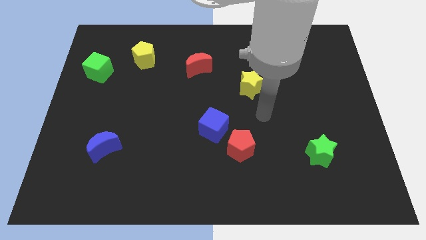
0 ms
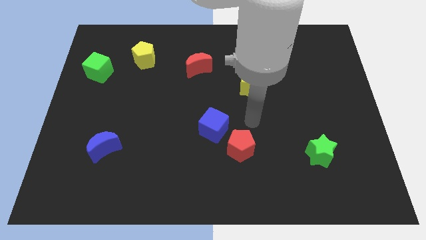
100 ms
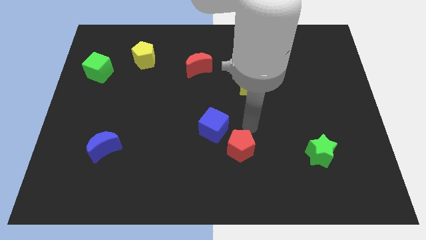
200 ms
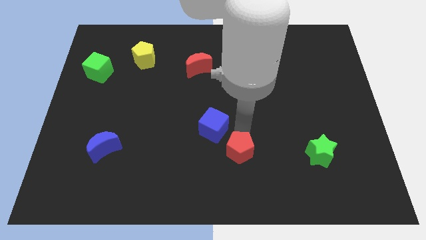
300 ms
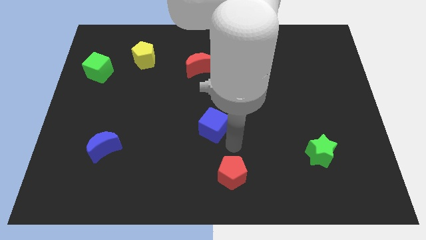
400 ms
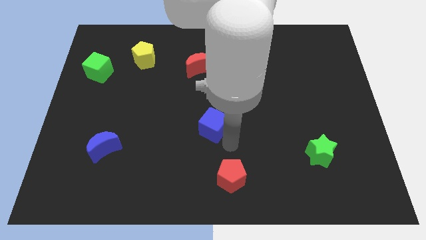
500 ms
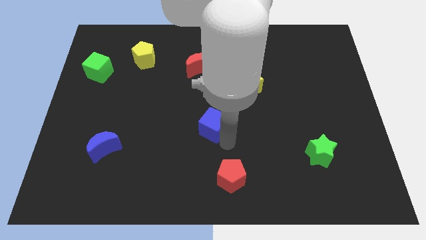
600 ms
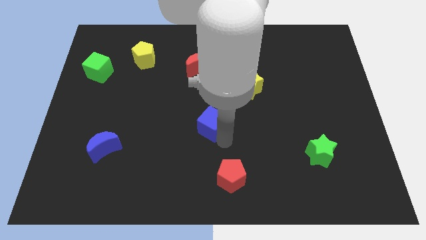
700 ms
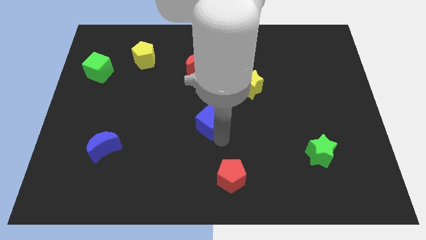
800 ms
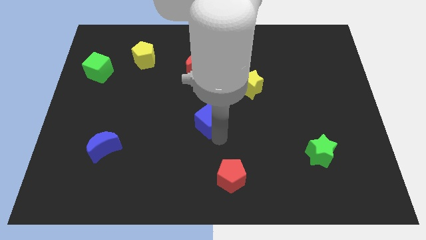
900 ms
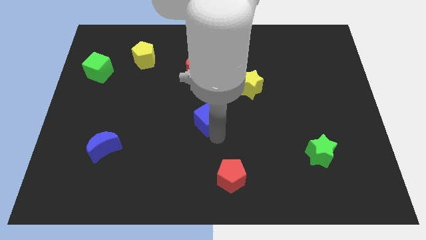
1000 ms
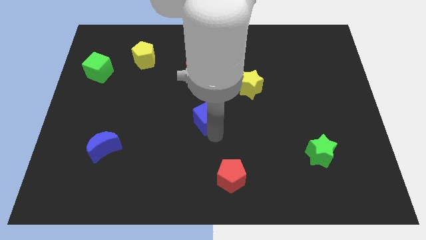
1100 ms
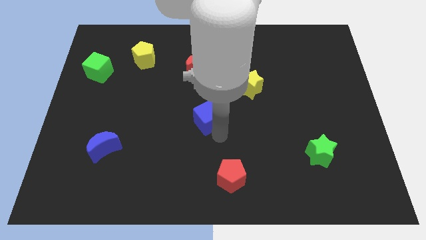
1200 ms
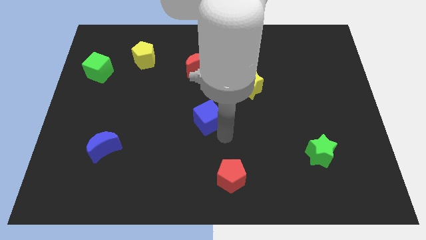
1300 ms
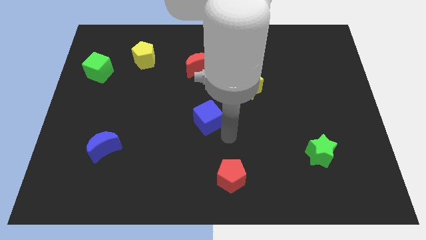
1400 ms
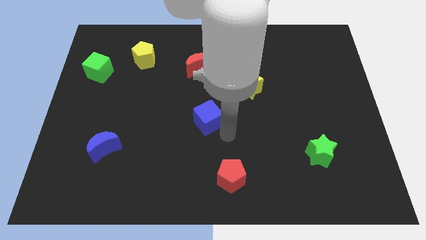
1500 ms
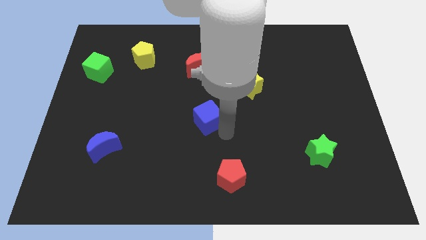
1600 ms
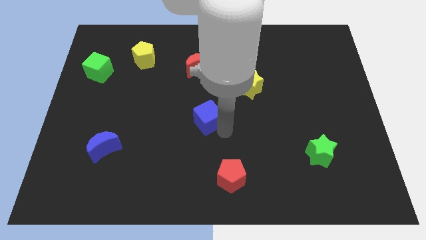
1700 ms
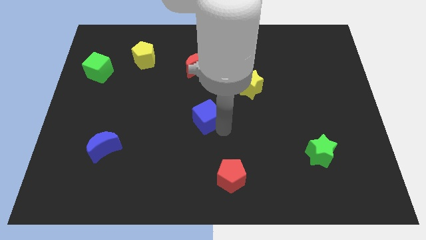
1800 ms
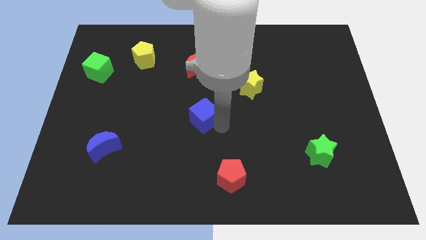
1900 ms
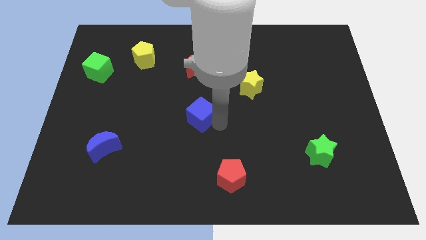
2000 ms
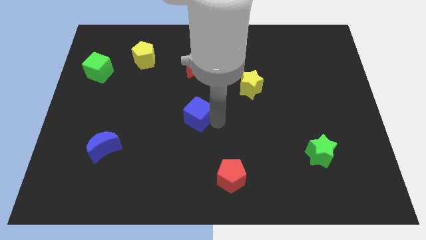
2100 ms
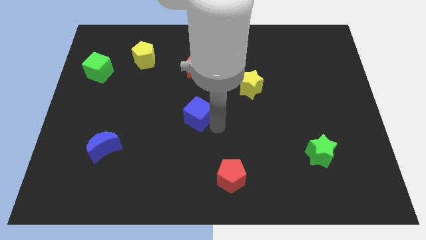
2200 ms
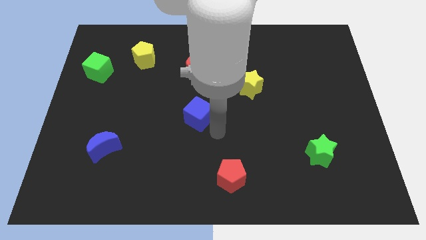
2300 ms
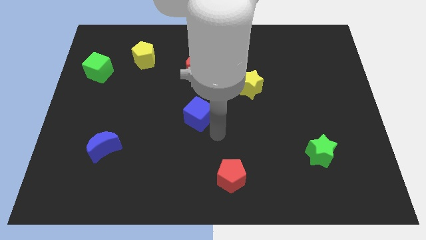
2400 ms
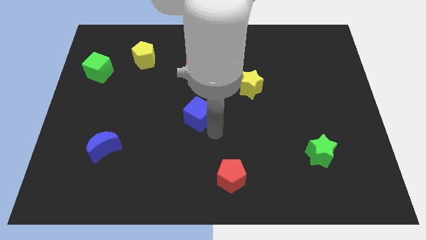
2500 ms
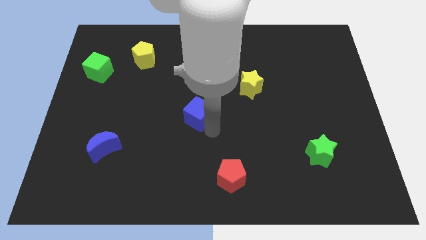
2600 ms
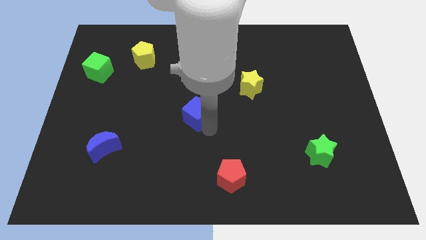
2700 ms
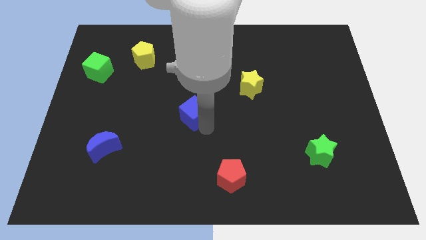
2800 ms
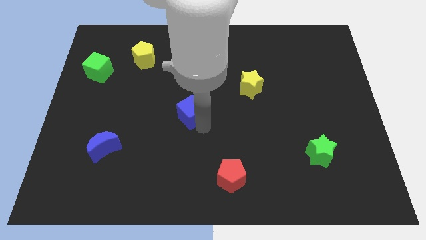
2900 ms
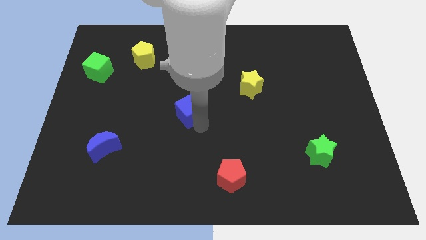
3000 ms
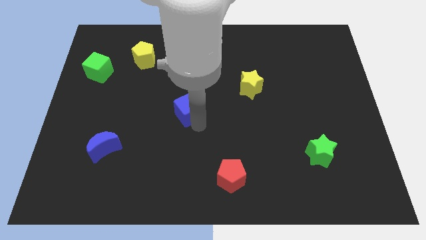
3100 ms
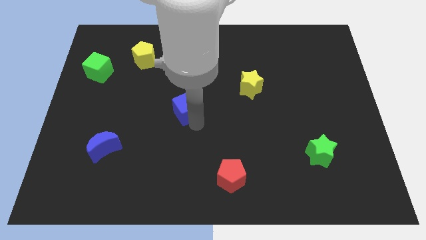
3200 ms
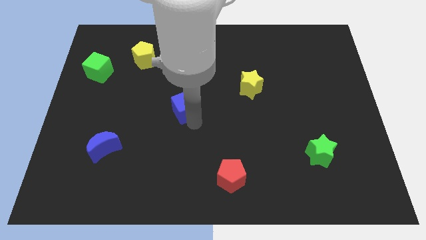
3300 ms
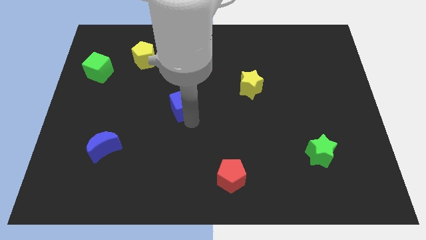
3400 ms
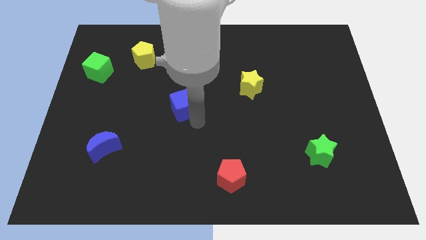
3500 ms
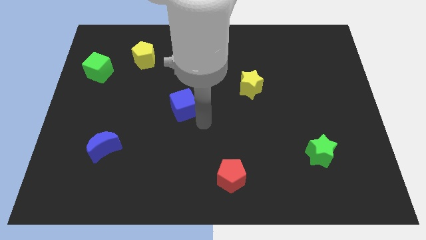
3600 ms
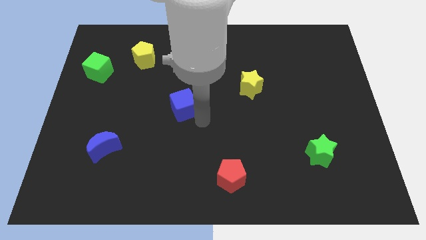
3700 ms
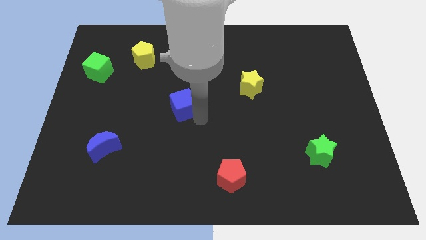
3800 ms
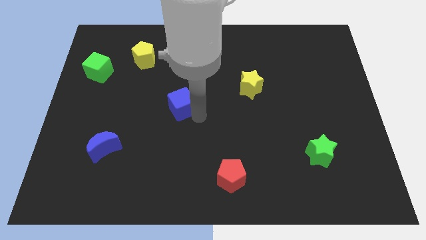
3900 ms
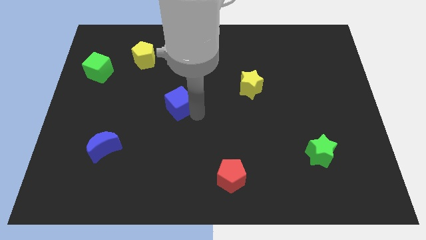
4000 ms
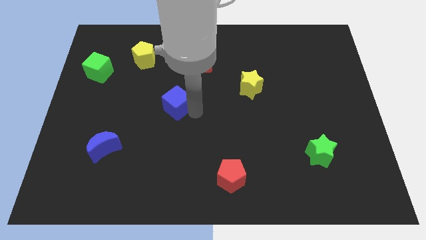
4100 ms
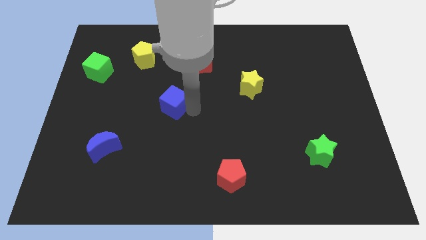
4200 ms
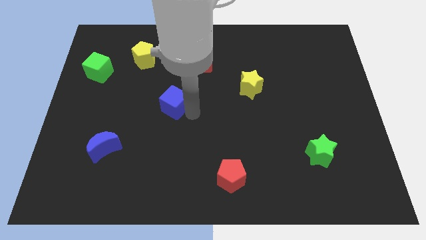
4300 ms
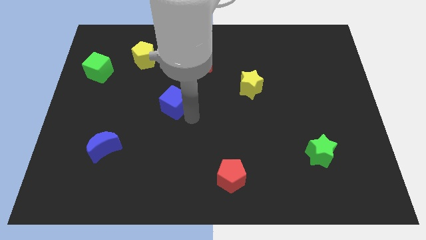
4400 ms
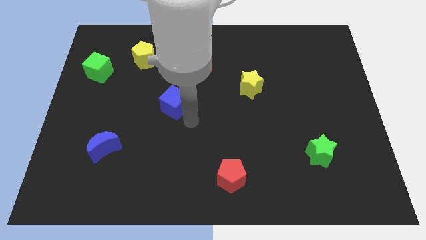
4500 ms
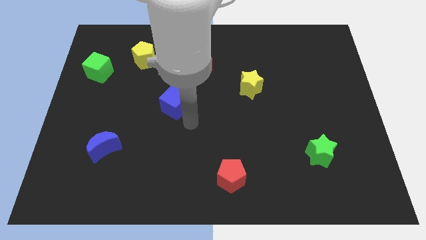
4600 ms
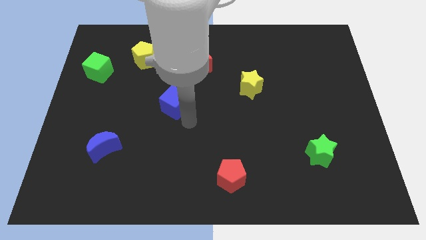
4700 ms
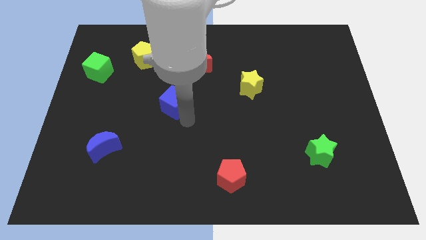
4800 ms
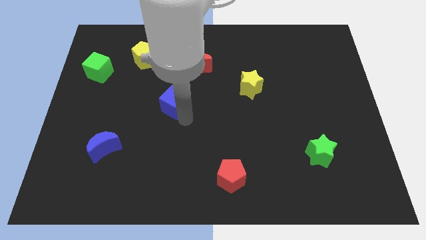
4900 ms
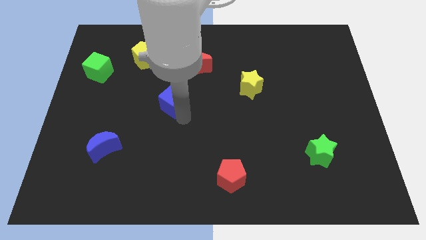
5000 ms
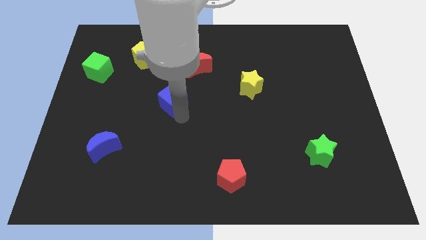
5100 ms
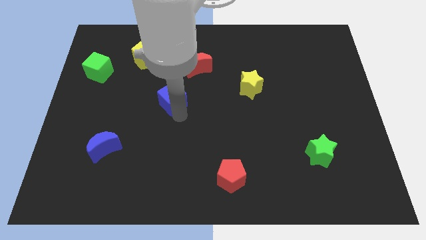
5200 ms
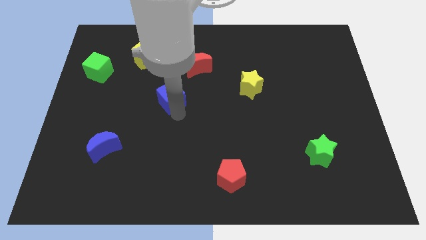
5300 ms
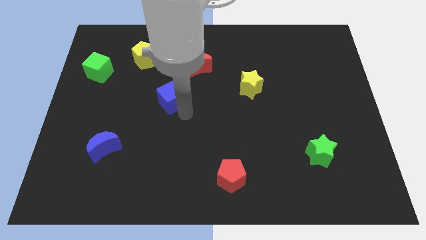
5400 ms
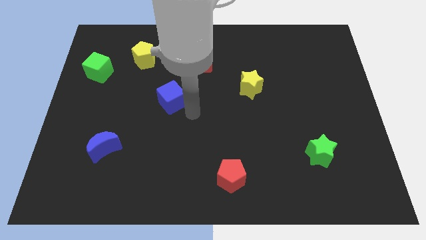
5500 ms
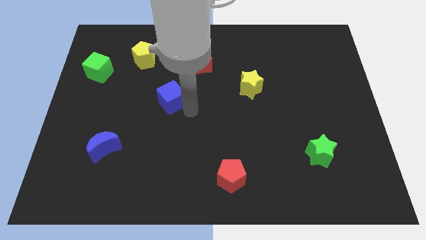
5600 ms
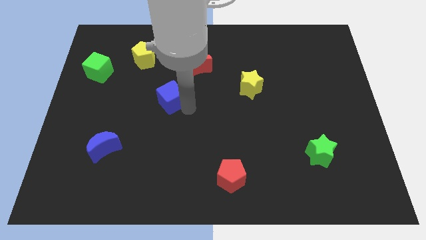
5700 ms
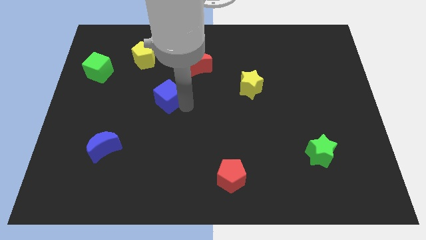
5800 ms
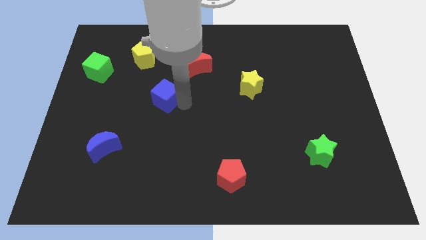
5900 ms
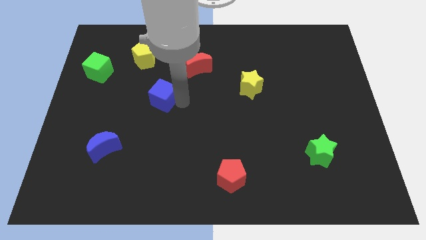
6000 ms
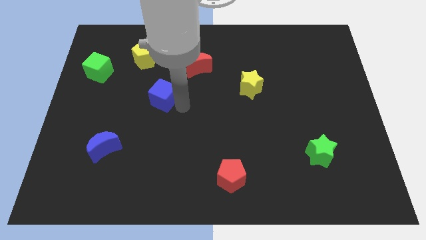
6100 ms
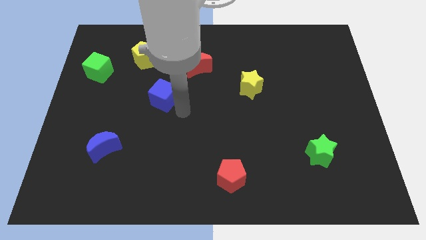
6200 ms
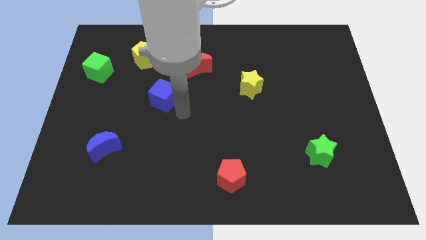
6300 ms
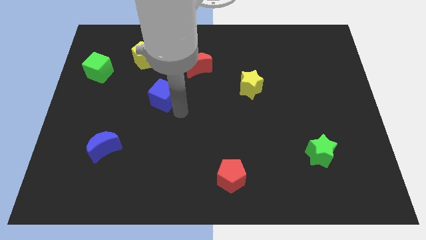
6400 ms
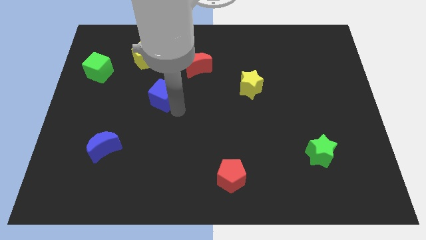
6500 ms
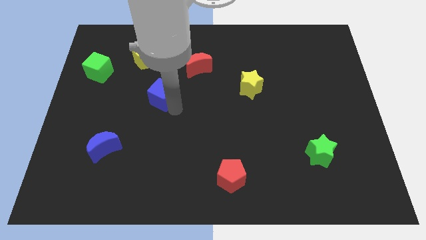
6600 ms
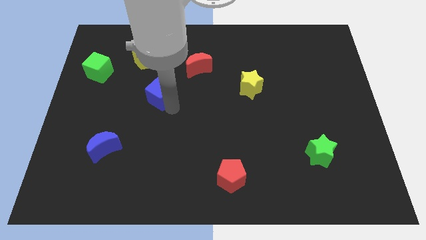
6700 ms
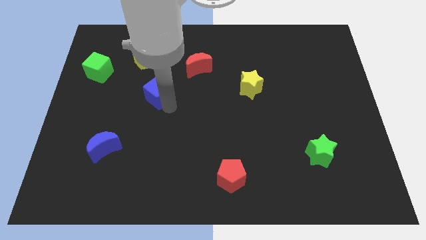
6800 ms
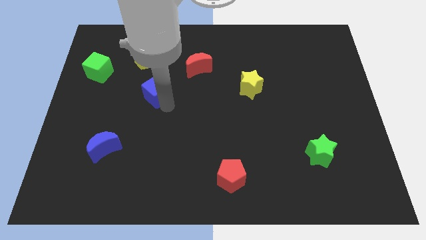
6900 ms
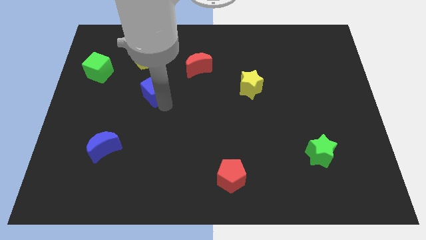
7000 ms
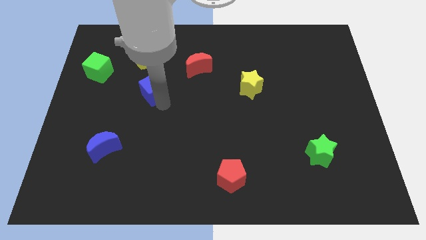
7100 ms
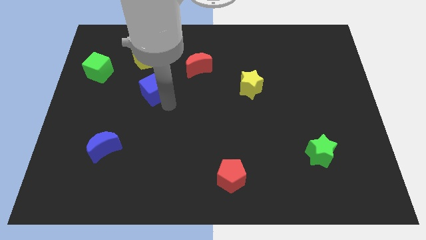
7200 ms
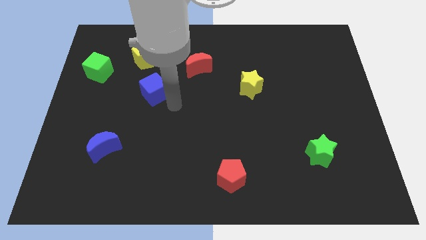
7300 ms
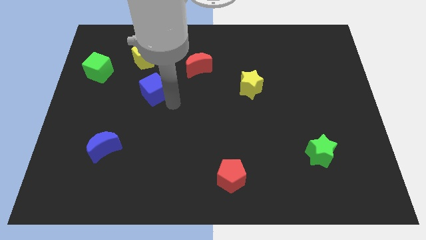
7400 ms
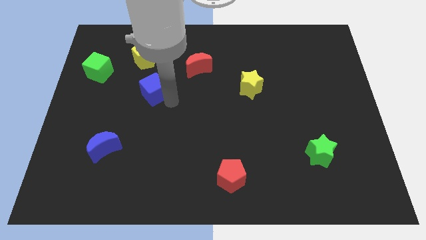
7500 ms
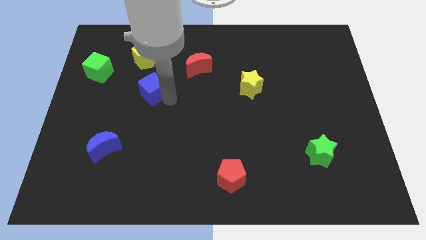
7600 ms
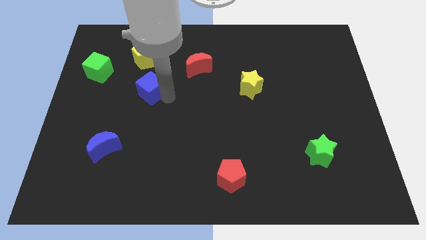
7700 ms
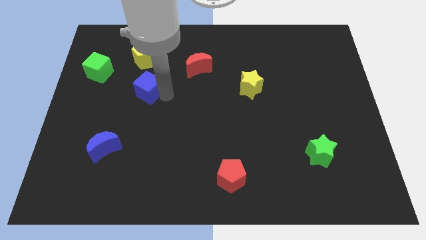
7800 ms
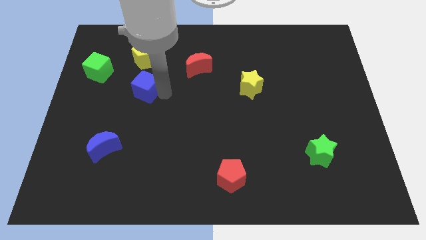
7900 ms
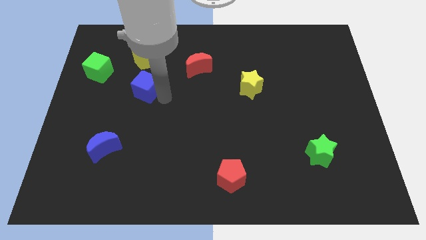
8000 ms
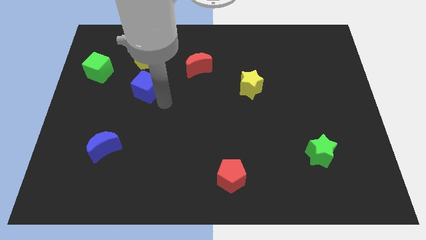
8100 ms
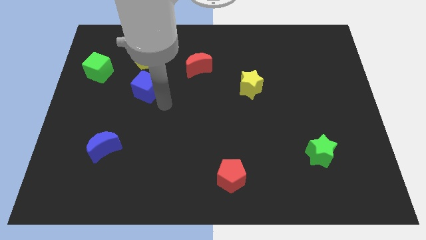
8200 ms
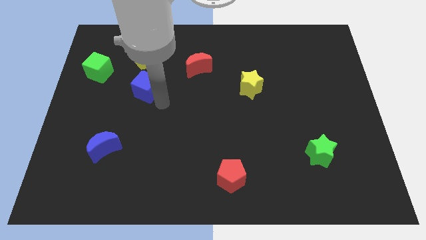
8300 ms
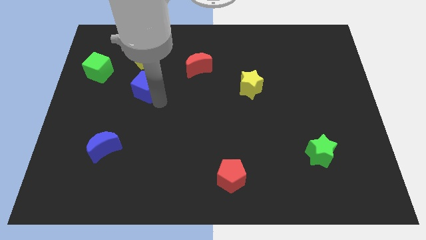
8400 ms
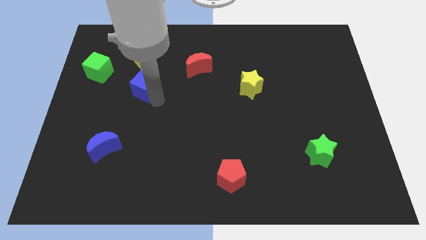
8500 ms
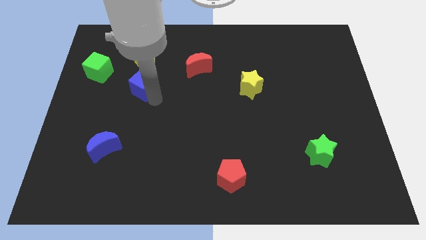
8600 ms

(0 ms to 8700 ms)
slide the blue cube diagonally up and left
